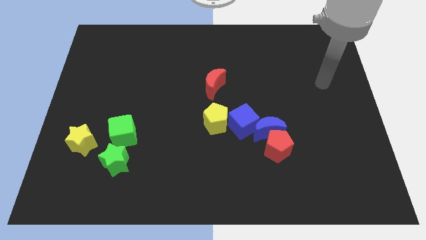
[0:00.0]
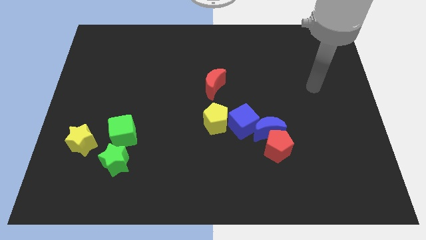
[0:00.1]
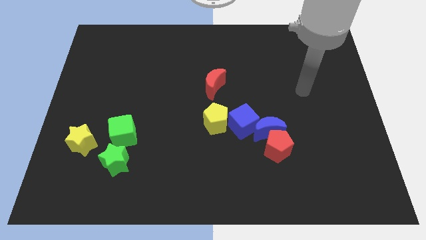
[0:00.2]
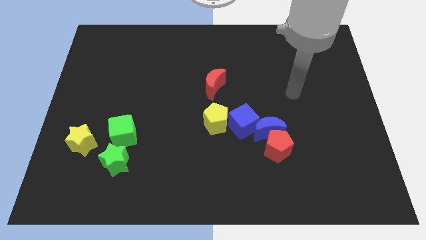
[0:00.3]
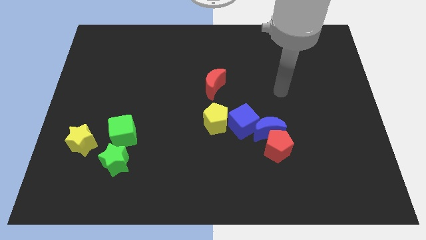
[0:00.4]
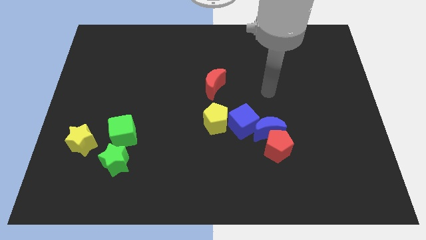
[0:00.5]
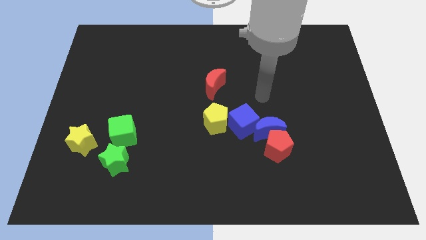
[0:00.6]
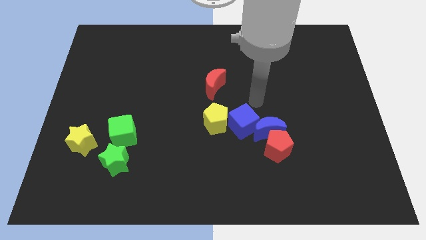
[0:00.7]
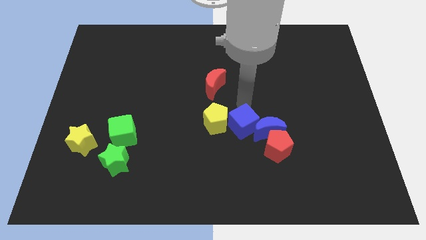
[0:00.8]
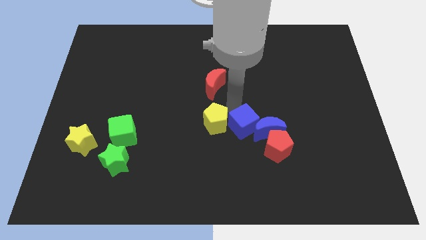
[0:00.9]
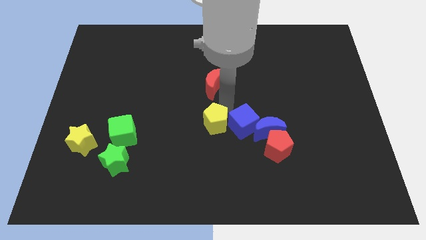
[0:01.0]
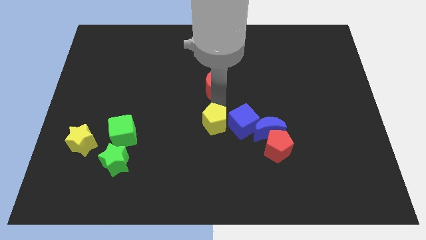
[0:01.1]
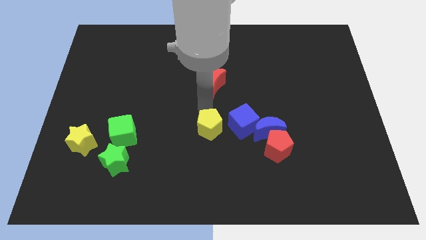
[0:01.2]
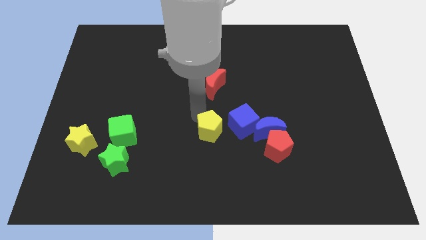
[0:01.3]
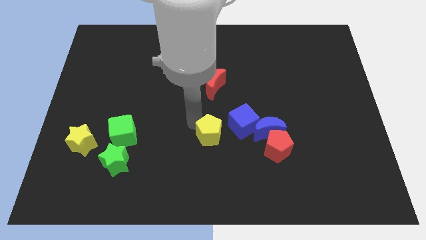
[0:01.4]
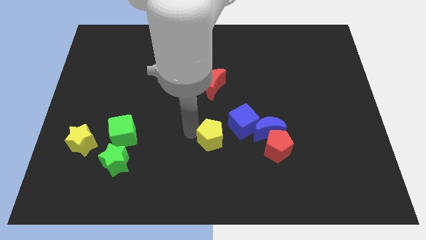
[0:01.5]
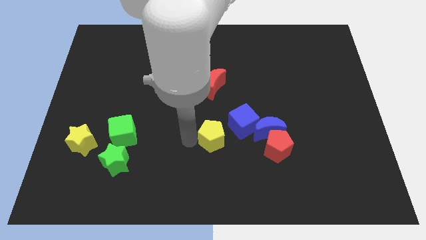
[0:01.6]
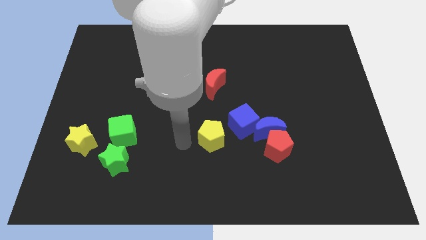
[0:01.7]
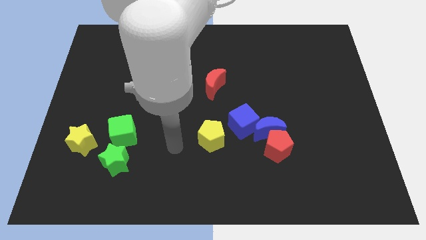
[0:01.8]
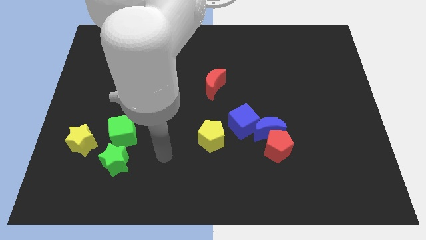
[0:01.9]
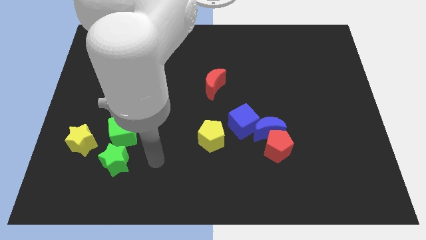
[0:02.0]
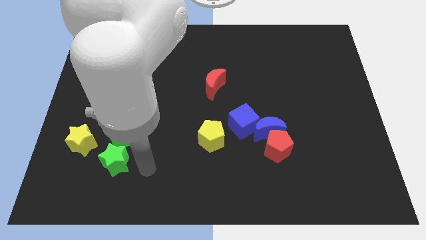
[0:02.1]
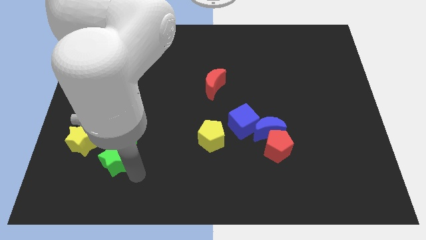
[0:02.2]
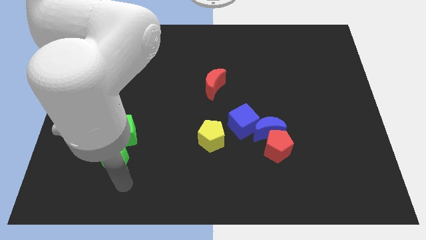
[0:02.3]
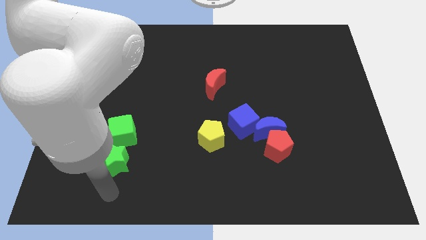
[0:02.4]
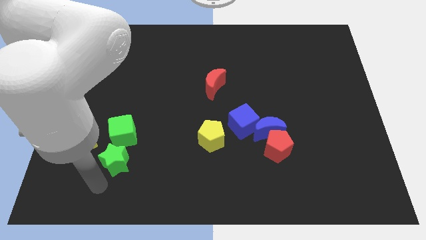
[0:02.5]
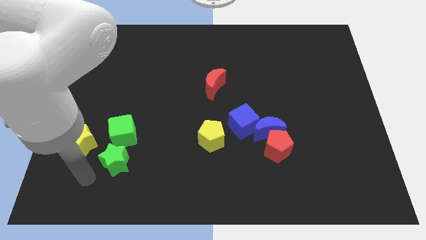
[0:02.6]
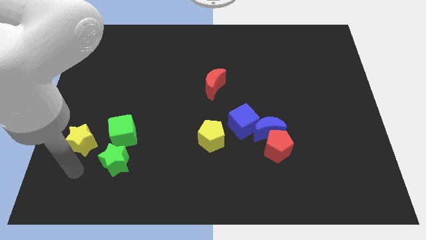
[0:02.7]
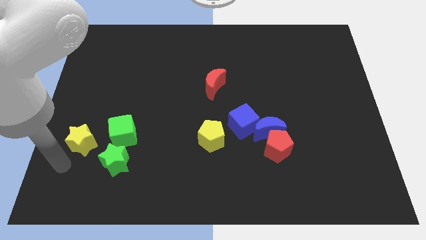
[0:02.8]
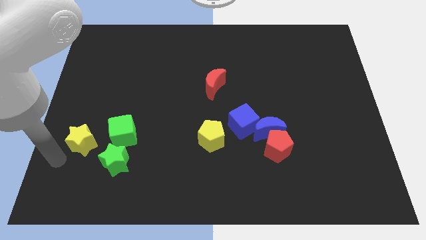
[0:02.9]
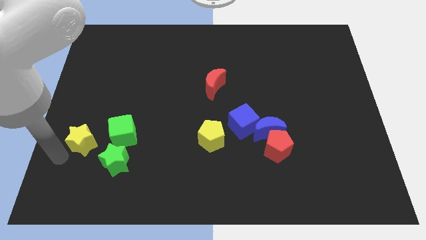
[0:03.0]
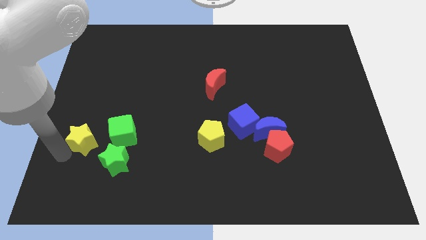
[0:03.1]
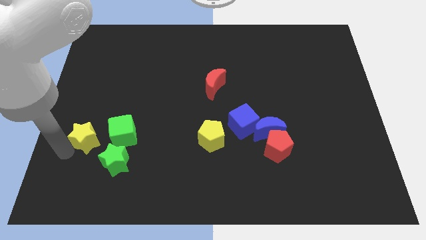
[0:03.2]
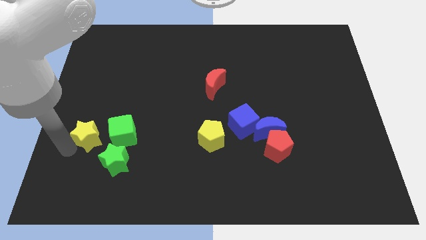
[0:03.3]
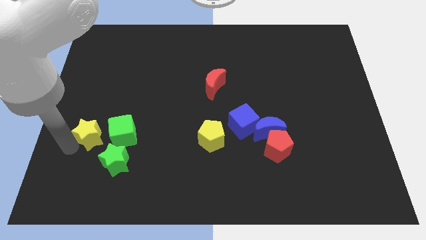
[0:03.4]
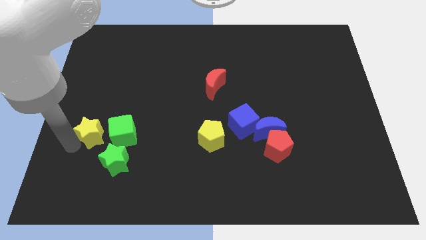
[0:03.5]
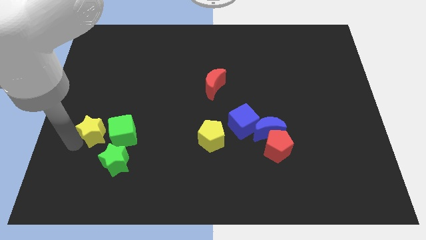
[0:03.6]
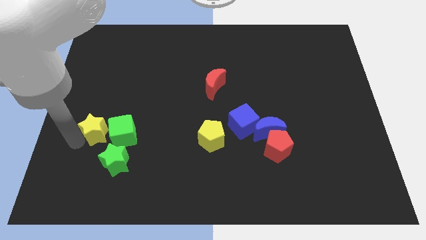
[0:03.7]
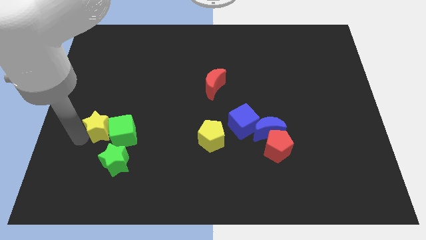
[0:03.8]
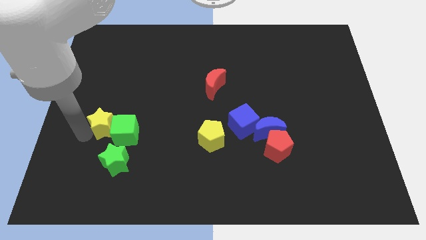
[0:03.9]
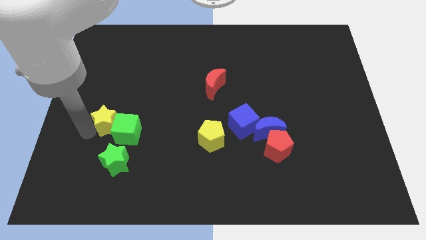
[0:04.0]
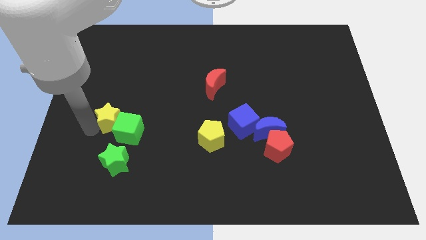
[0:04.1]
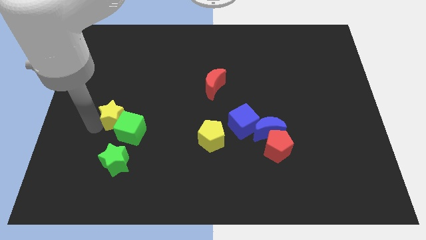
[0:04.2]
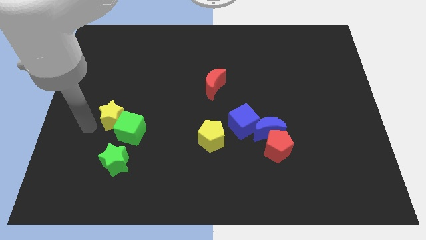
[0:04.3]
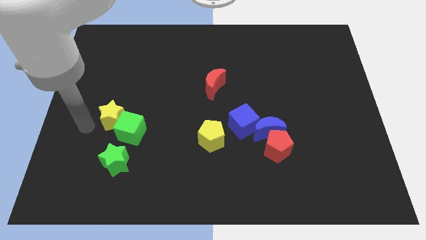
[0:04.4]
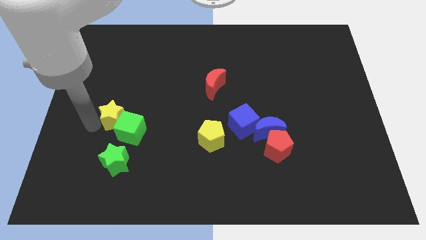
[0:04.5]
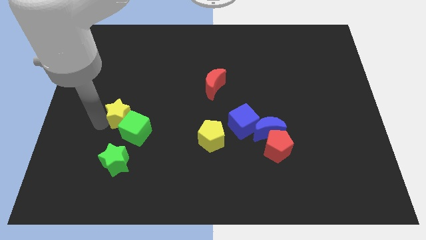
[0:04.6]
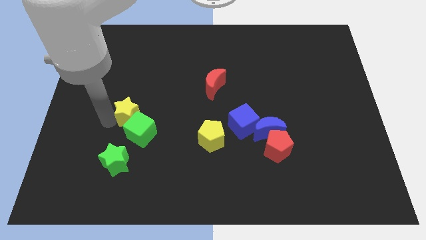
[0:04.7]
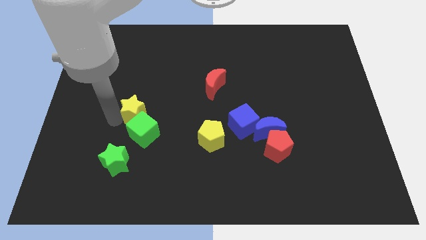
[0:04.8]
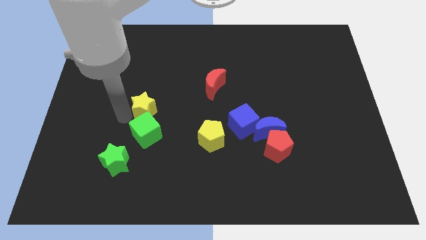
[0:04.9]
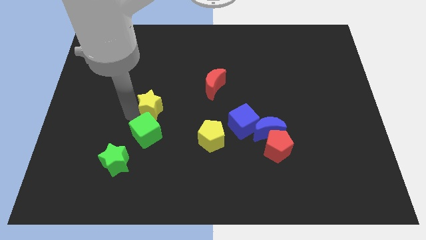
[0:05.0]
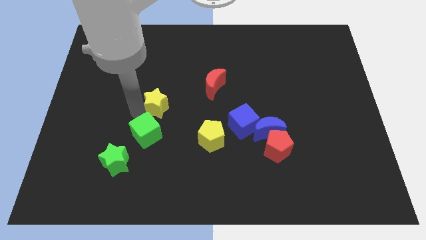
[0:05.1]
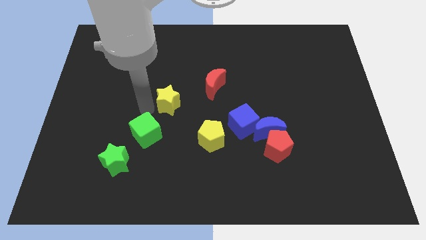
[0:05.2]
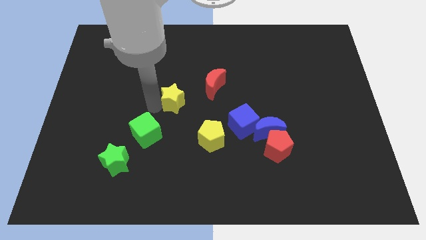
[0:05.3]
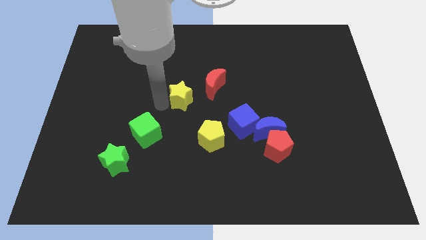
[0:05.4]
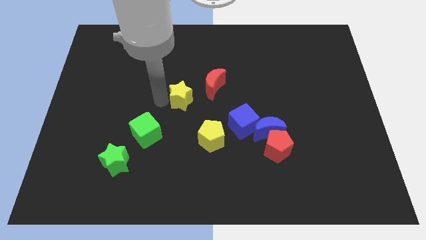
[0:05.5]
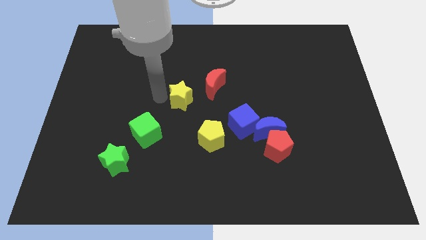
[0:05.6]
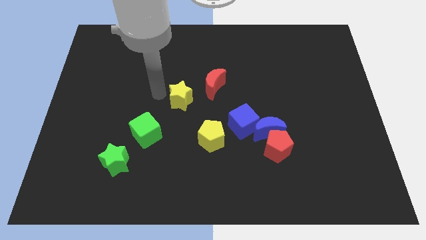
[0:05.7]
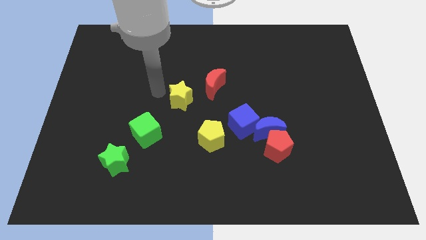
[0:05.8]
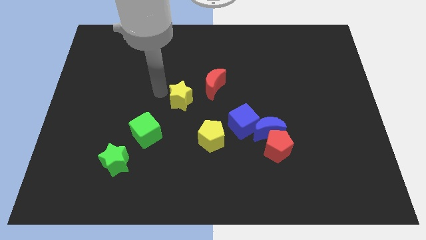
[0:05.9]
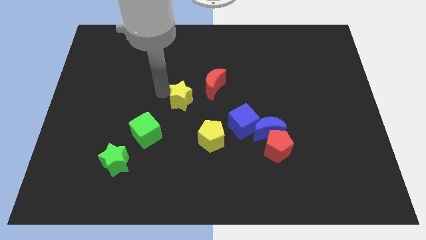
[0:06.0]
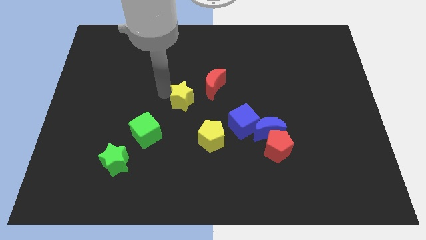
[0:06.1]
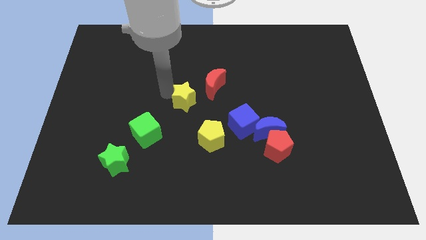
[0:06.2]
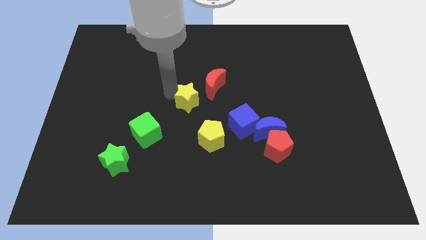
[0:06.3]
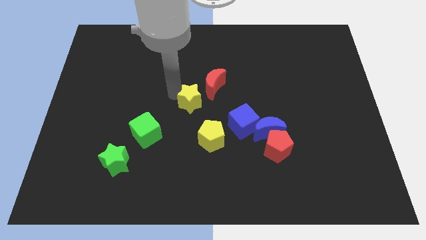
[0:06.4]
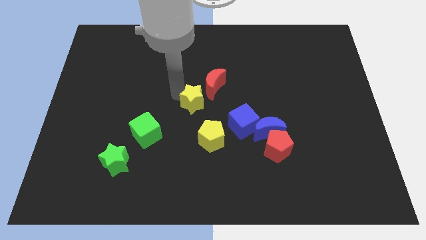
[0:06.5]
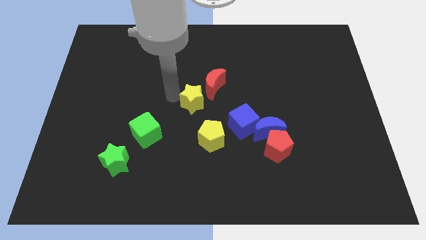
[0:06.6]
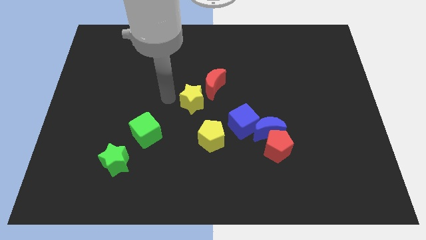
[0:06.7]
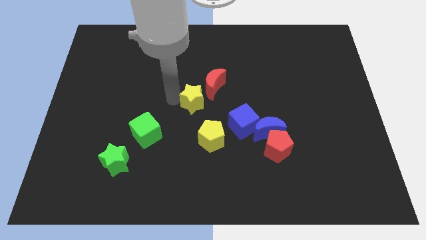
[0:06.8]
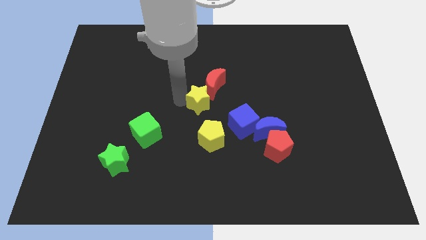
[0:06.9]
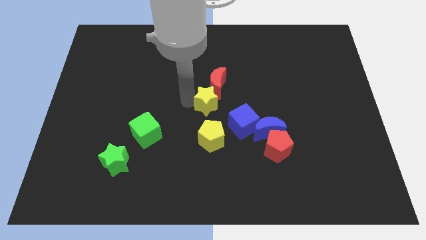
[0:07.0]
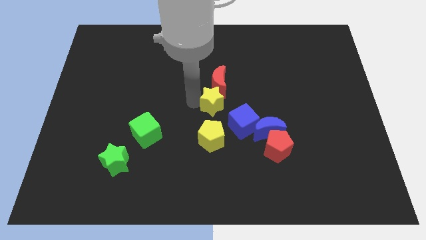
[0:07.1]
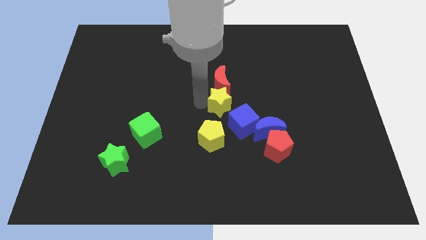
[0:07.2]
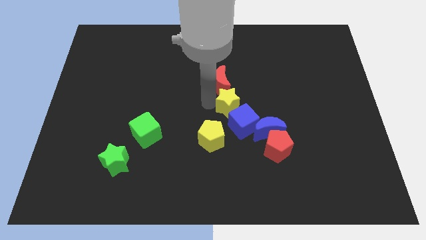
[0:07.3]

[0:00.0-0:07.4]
move the yellow star to the top left of the blue moon

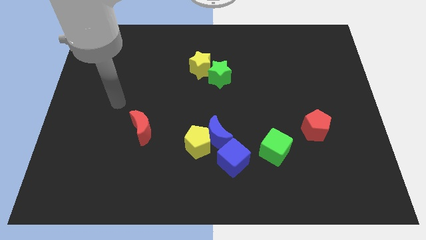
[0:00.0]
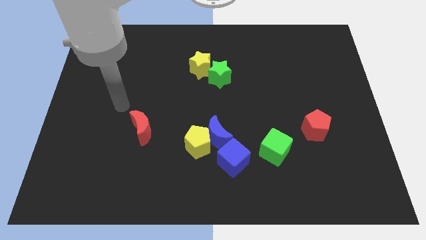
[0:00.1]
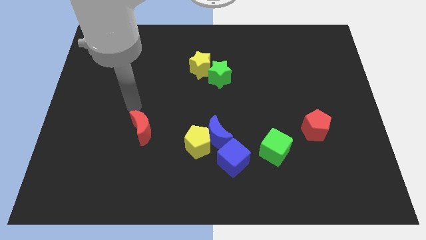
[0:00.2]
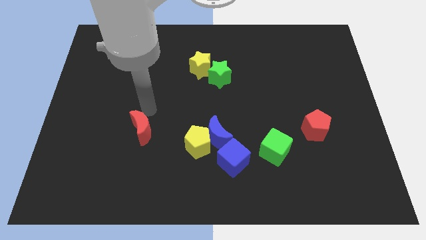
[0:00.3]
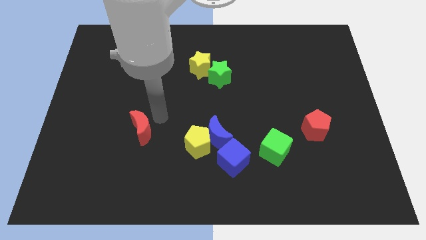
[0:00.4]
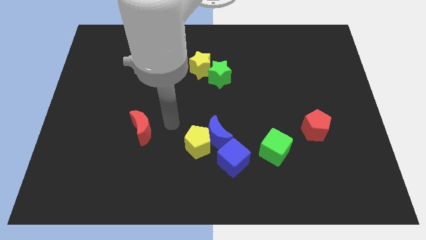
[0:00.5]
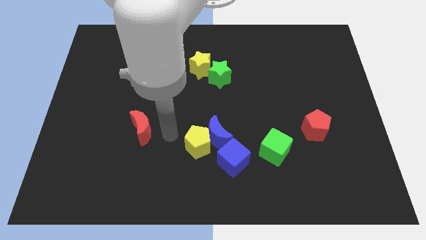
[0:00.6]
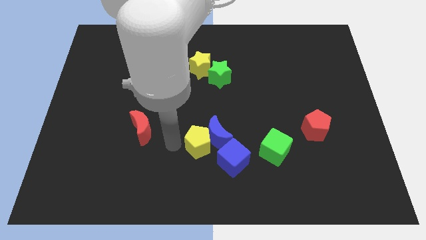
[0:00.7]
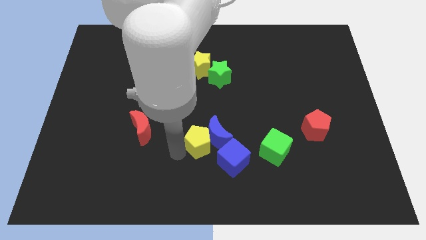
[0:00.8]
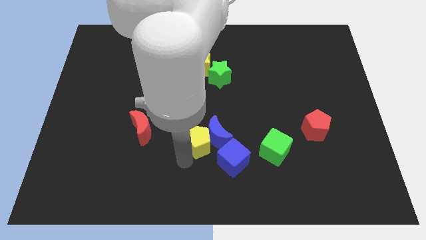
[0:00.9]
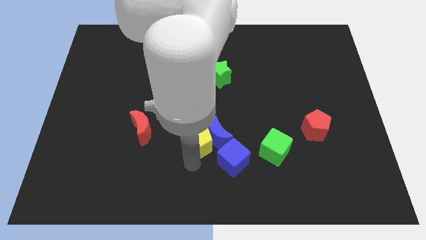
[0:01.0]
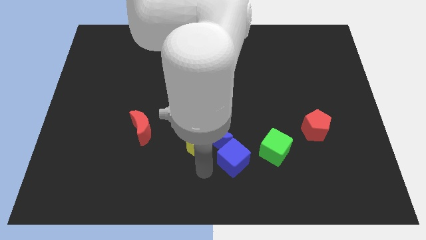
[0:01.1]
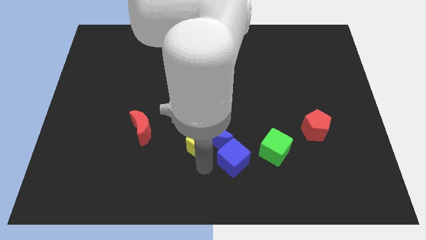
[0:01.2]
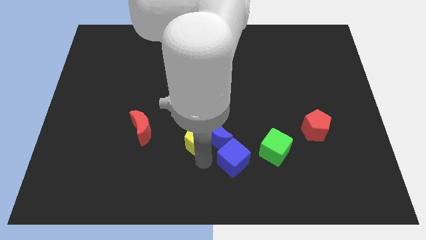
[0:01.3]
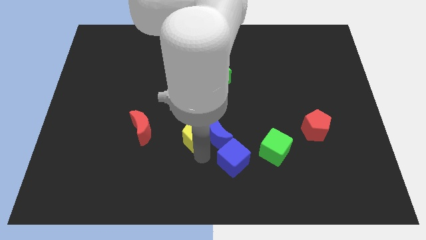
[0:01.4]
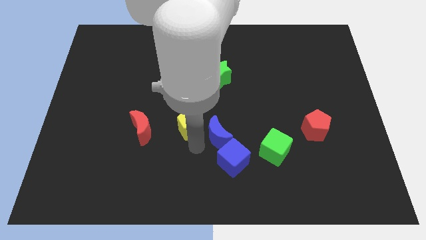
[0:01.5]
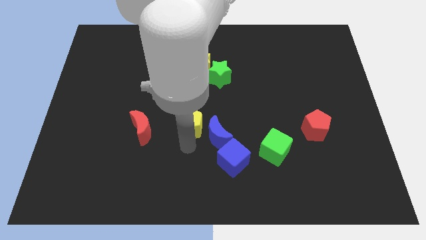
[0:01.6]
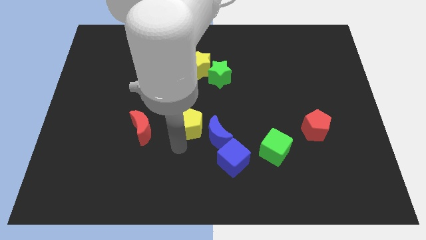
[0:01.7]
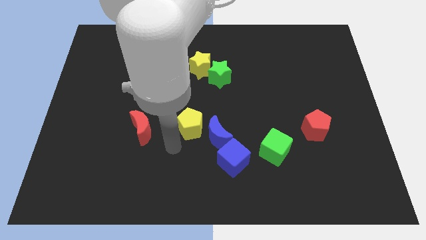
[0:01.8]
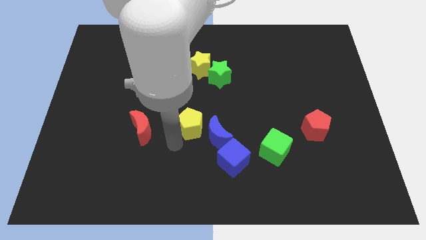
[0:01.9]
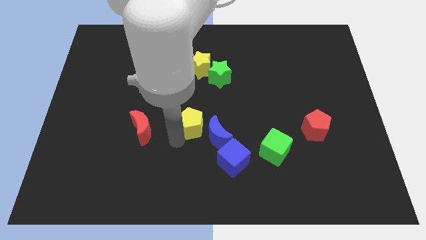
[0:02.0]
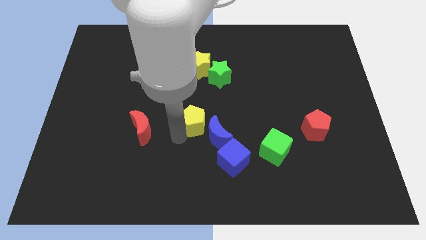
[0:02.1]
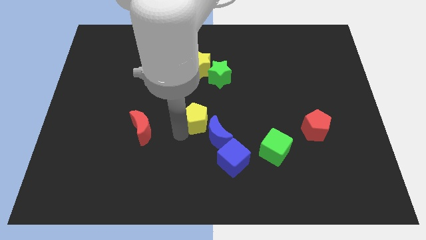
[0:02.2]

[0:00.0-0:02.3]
slide the yellow pentagon above the blue moon
